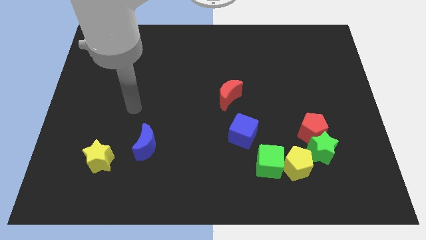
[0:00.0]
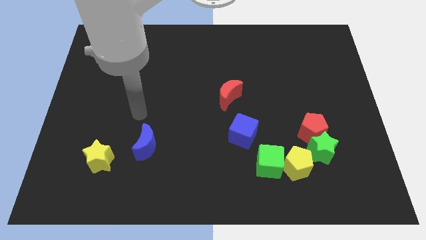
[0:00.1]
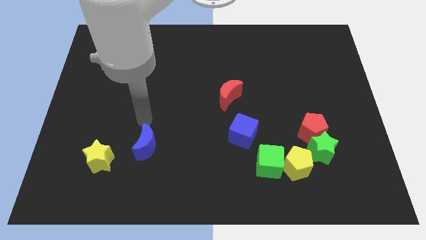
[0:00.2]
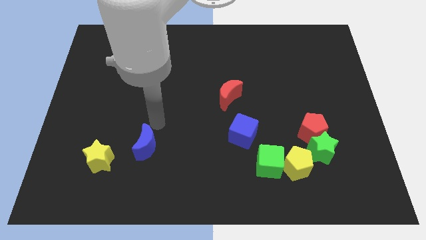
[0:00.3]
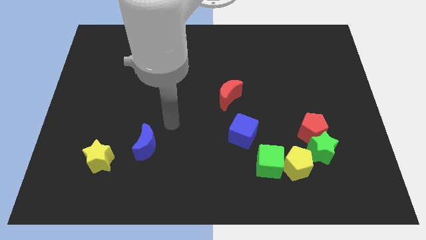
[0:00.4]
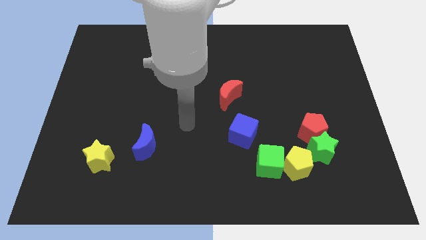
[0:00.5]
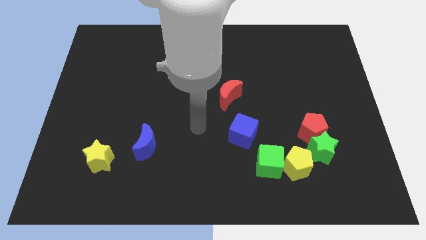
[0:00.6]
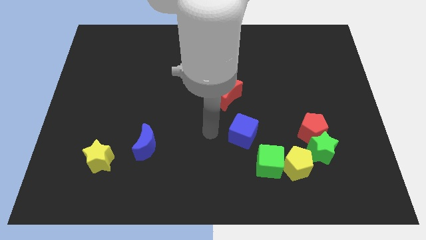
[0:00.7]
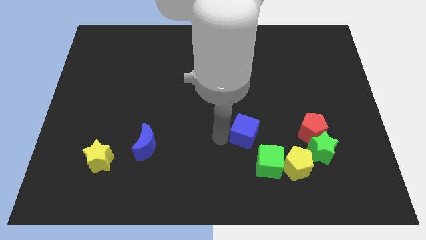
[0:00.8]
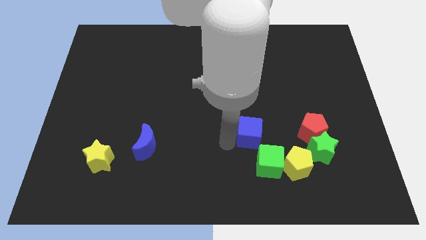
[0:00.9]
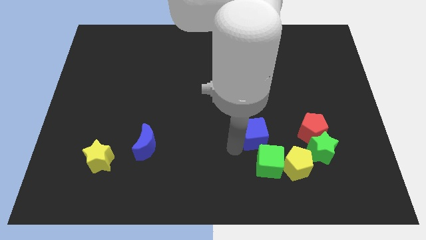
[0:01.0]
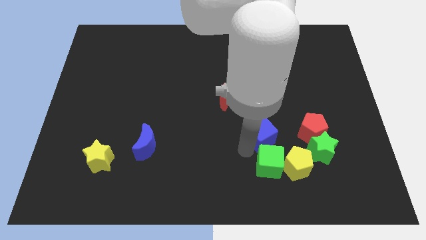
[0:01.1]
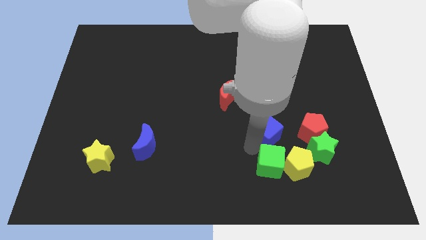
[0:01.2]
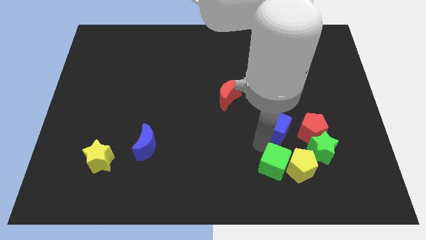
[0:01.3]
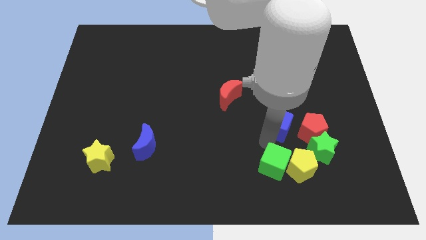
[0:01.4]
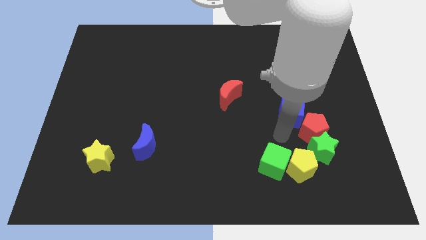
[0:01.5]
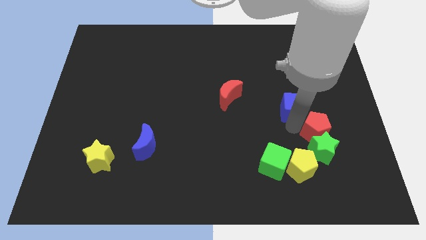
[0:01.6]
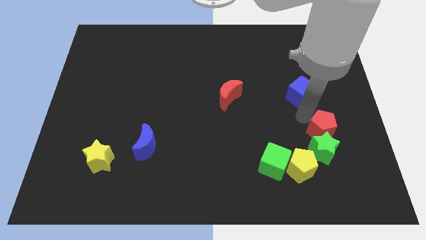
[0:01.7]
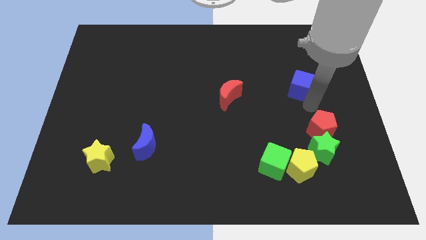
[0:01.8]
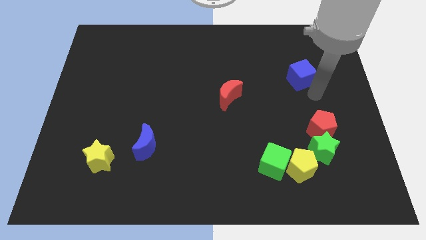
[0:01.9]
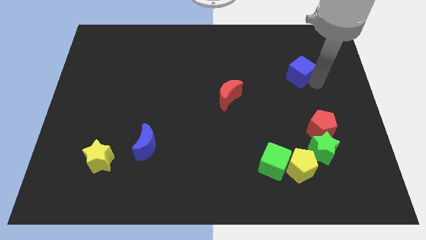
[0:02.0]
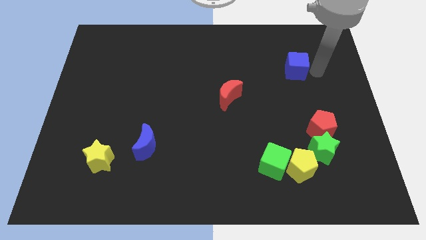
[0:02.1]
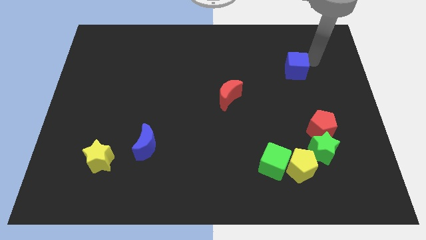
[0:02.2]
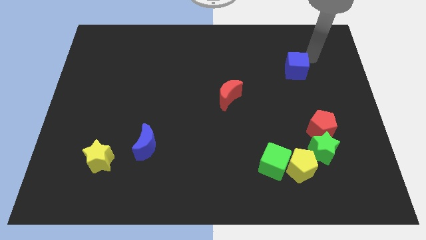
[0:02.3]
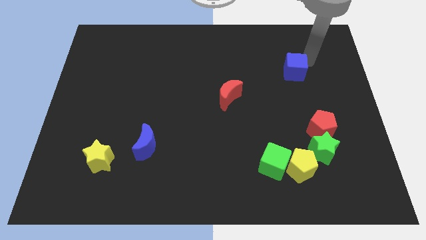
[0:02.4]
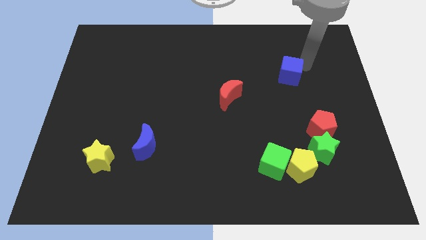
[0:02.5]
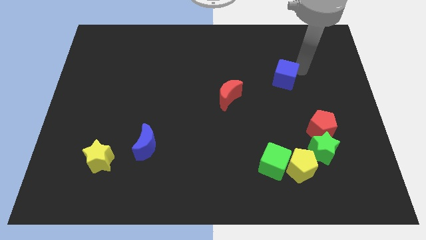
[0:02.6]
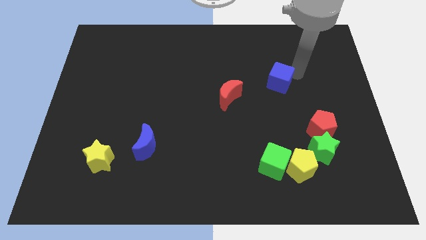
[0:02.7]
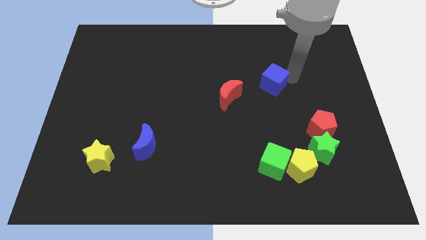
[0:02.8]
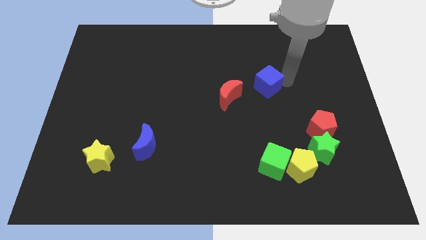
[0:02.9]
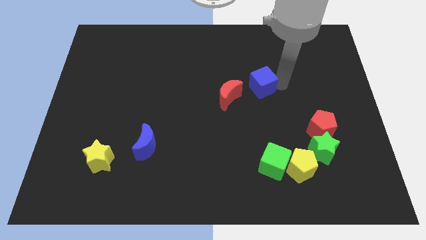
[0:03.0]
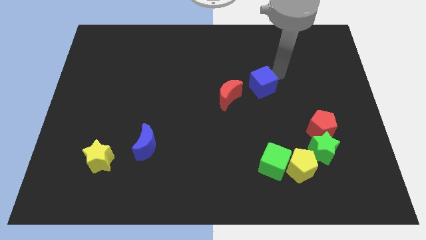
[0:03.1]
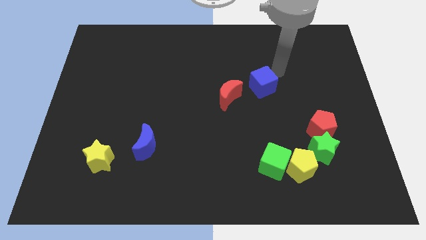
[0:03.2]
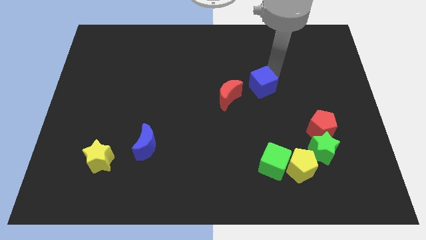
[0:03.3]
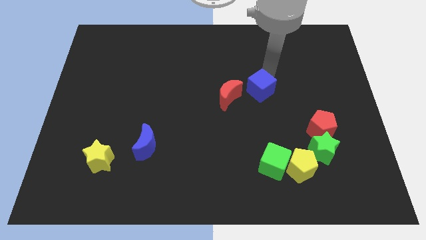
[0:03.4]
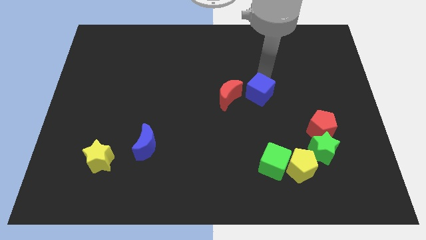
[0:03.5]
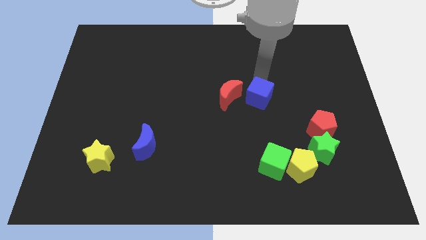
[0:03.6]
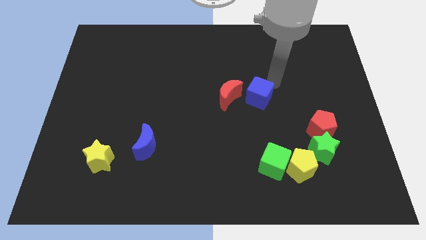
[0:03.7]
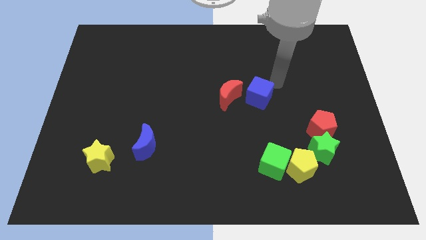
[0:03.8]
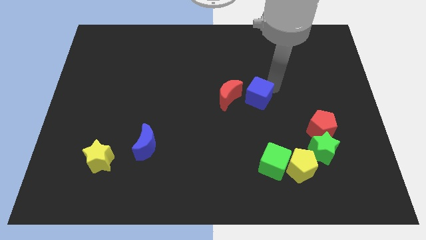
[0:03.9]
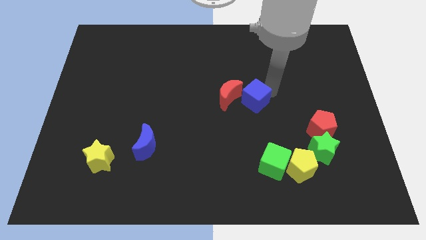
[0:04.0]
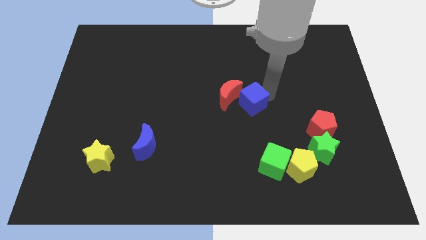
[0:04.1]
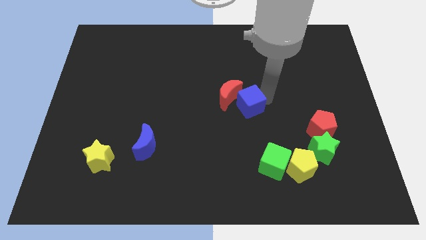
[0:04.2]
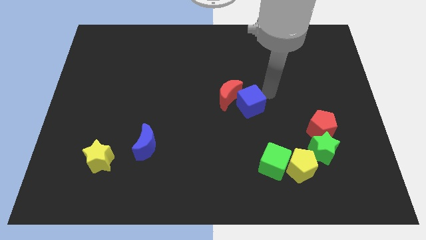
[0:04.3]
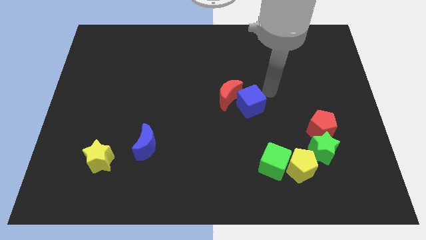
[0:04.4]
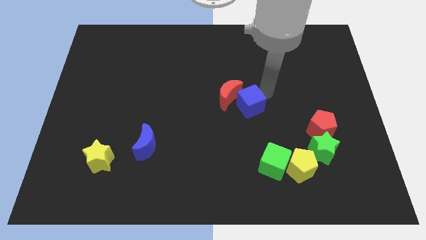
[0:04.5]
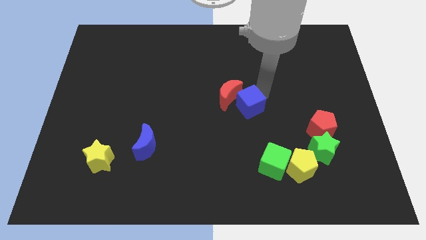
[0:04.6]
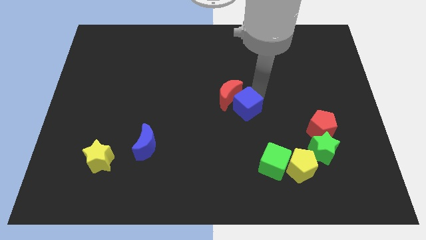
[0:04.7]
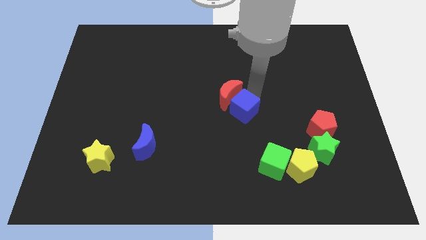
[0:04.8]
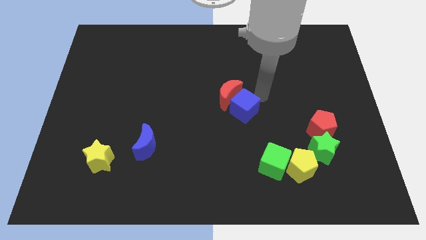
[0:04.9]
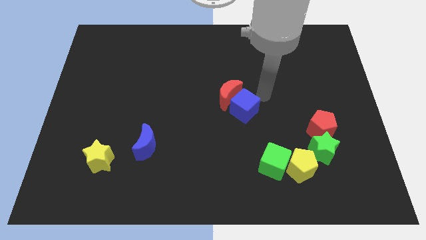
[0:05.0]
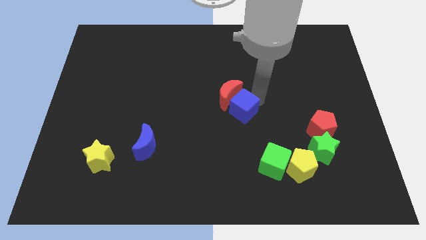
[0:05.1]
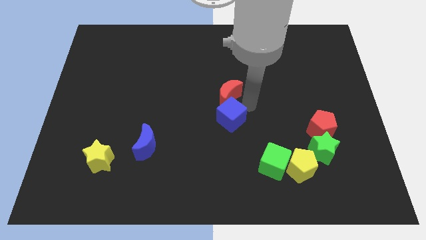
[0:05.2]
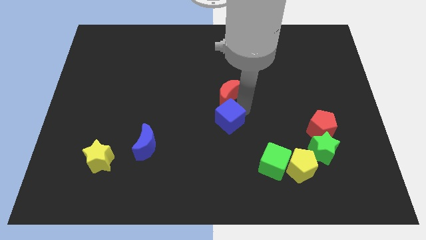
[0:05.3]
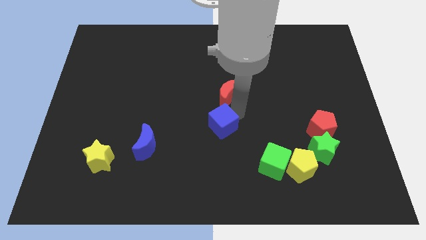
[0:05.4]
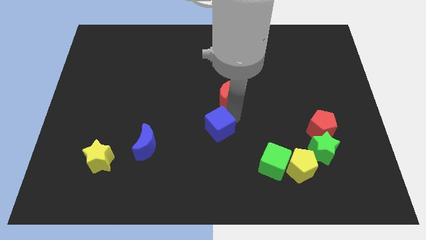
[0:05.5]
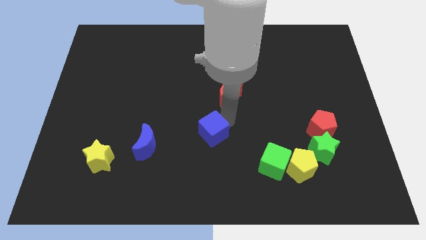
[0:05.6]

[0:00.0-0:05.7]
push the blue cube to the right of the blue moon

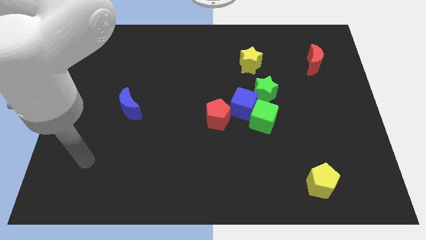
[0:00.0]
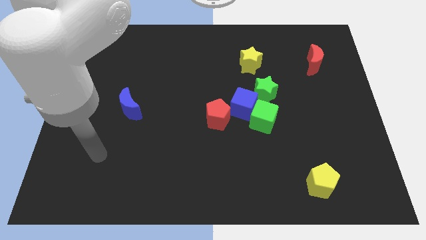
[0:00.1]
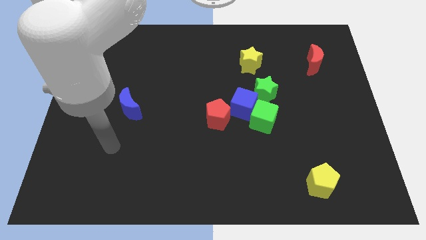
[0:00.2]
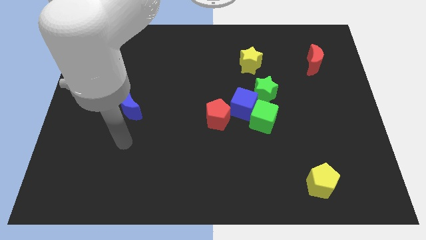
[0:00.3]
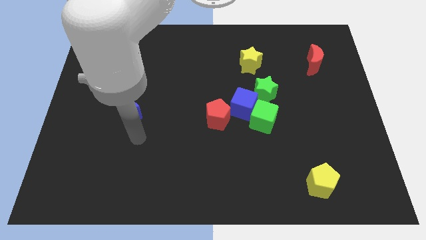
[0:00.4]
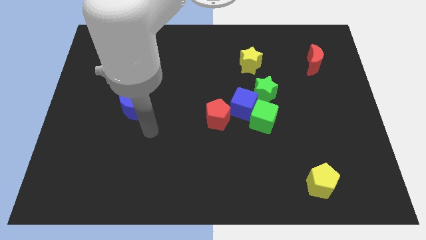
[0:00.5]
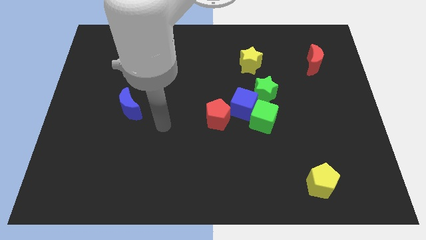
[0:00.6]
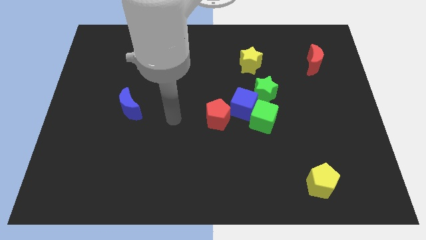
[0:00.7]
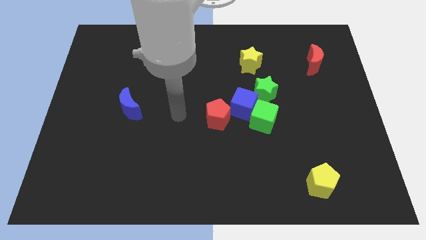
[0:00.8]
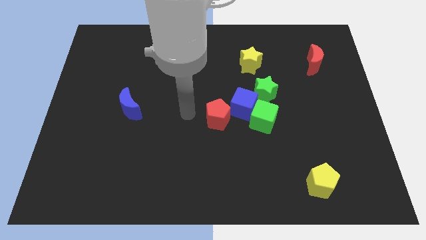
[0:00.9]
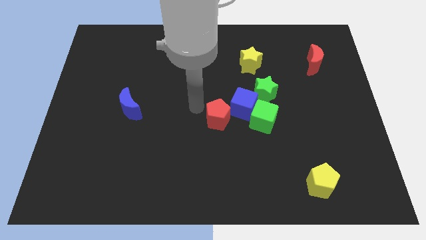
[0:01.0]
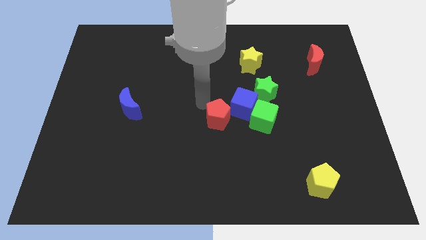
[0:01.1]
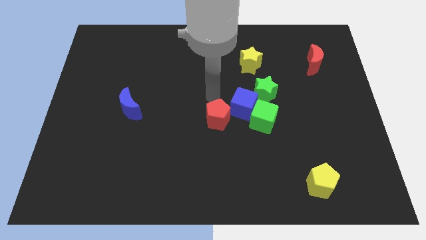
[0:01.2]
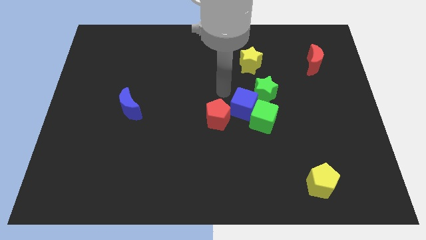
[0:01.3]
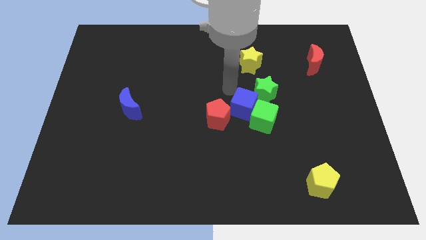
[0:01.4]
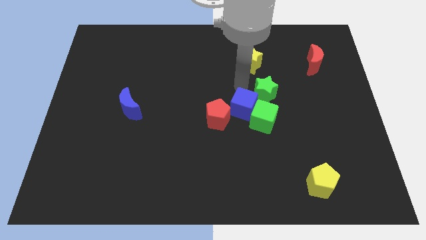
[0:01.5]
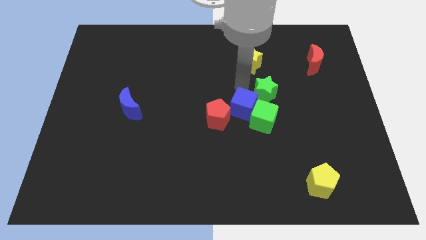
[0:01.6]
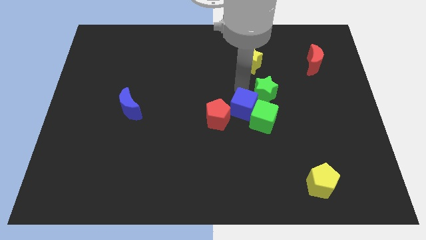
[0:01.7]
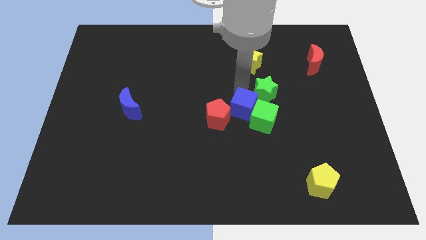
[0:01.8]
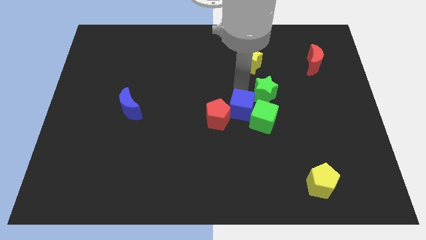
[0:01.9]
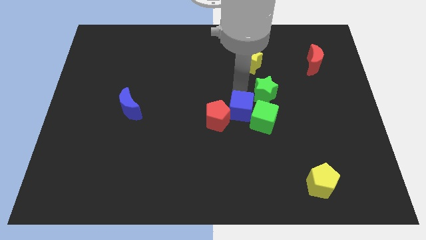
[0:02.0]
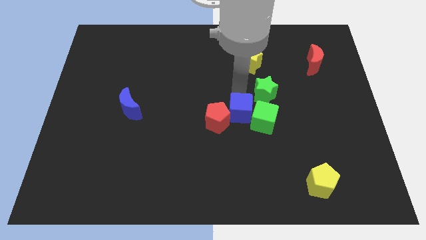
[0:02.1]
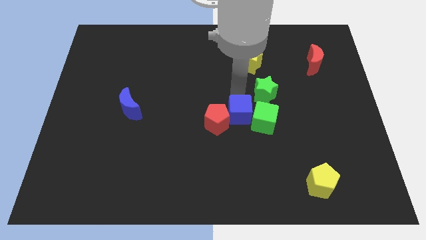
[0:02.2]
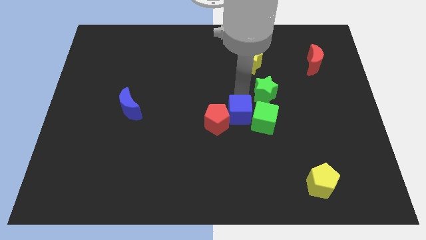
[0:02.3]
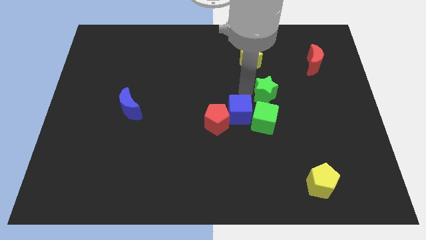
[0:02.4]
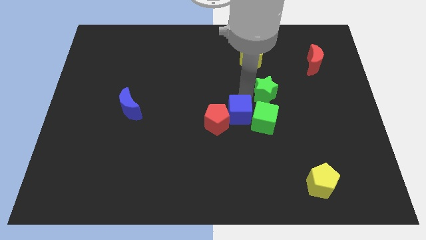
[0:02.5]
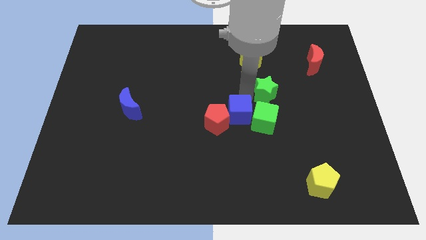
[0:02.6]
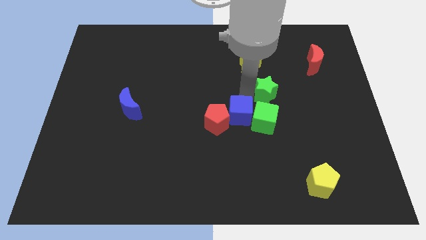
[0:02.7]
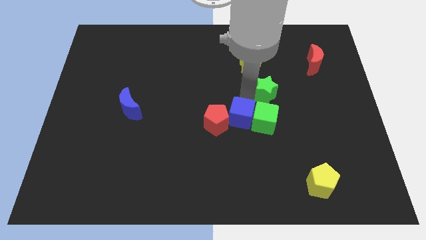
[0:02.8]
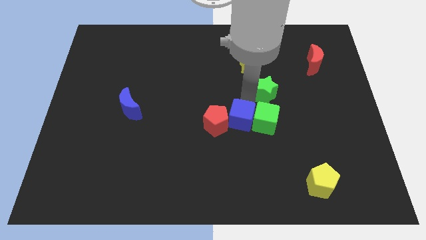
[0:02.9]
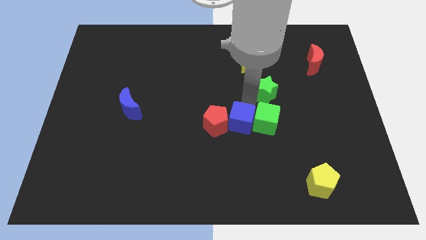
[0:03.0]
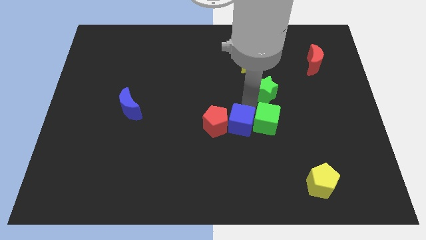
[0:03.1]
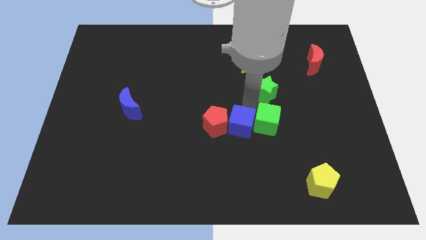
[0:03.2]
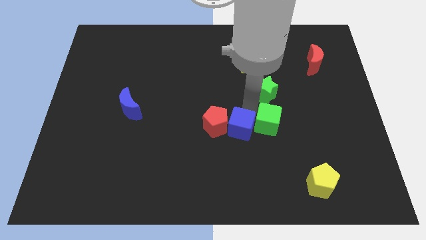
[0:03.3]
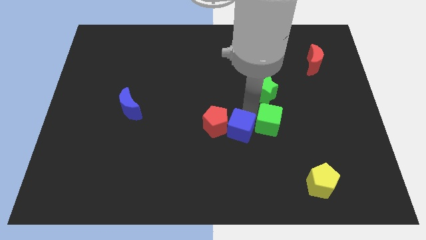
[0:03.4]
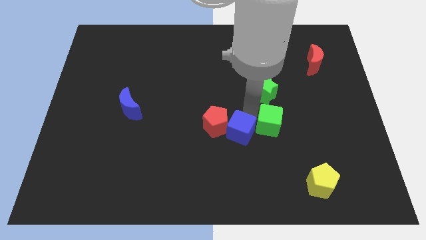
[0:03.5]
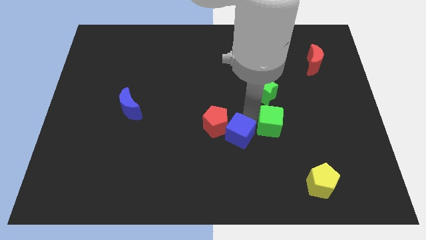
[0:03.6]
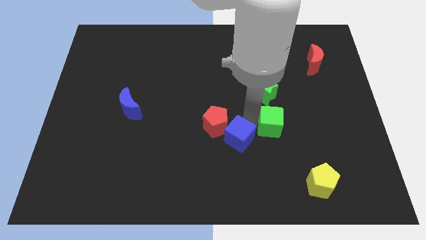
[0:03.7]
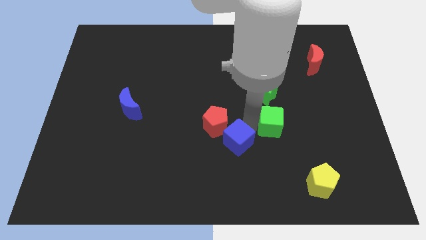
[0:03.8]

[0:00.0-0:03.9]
push the blue cube to the bottom side of the red pentagon
